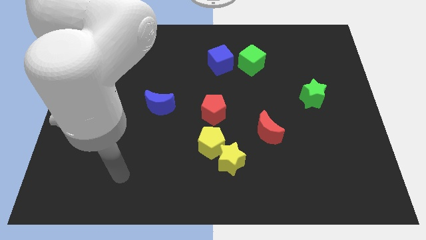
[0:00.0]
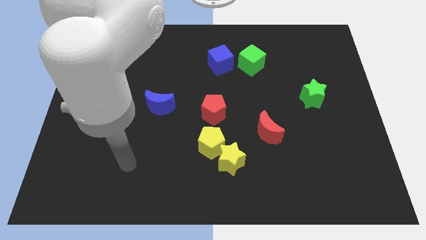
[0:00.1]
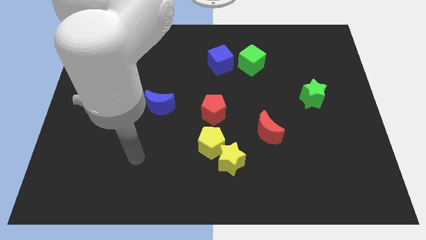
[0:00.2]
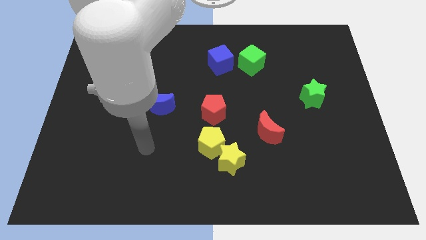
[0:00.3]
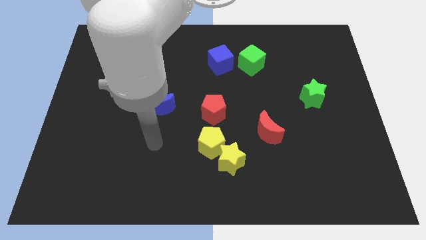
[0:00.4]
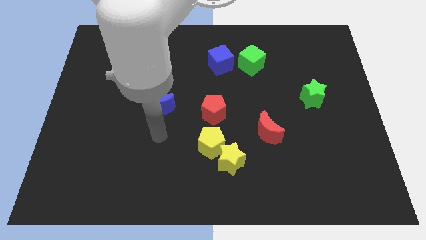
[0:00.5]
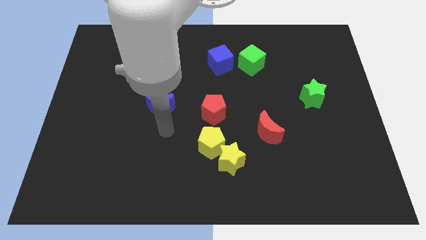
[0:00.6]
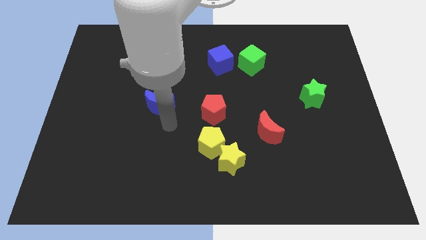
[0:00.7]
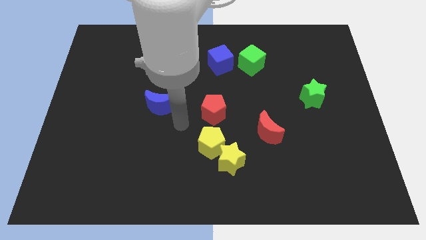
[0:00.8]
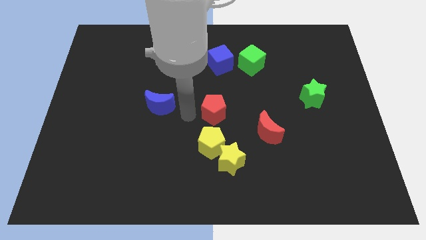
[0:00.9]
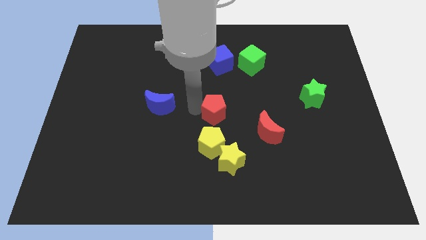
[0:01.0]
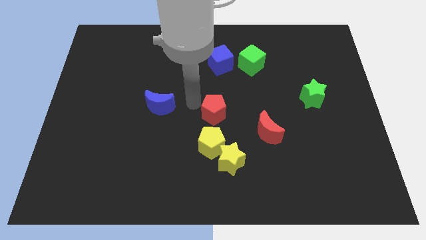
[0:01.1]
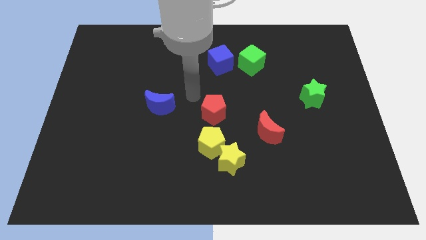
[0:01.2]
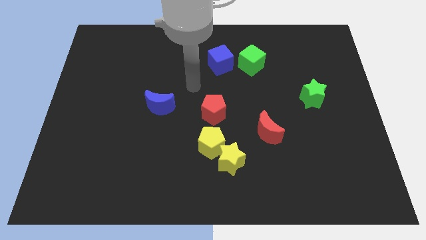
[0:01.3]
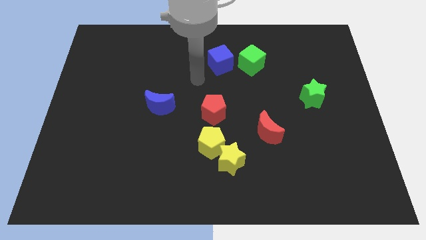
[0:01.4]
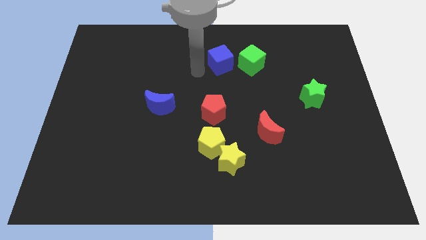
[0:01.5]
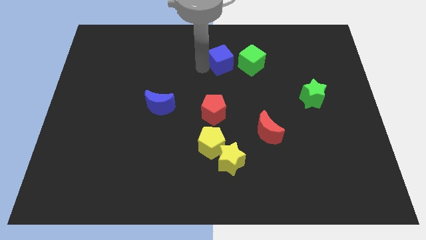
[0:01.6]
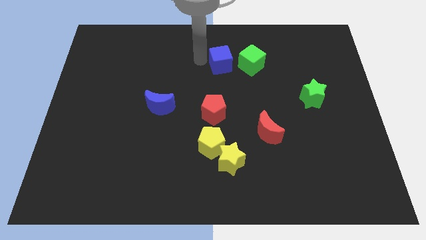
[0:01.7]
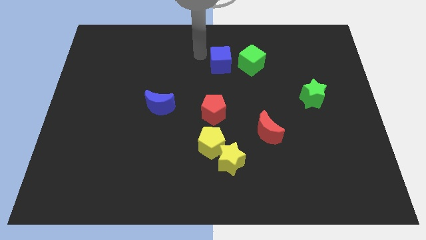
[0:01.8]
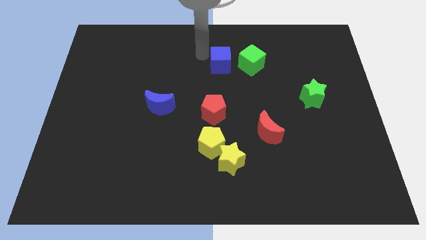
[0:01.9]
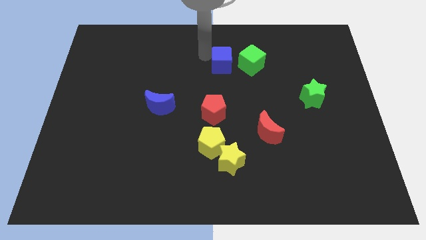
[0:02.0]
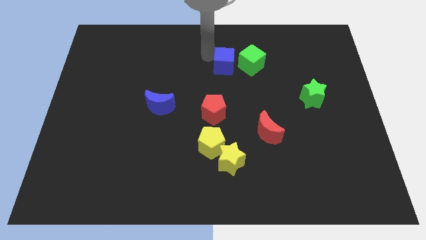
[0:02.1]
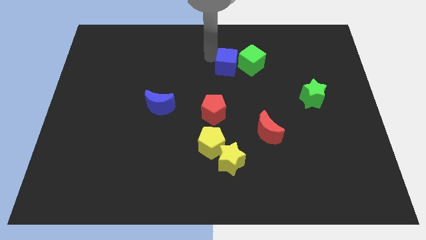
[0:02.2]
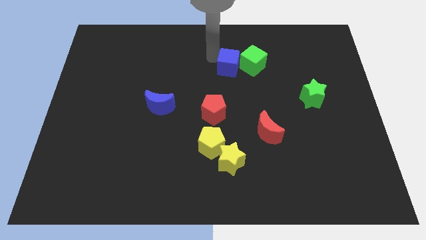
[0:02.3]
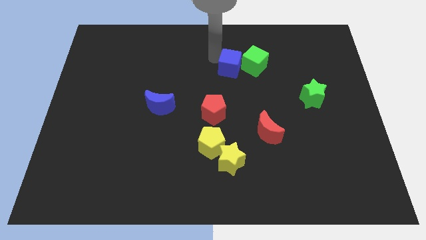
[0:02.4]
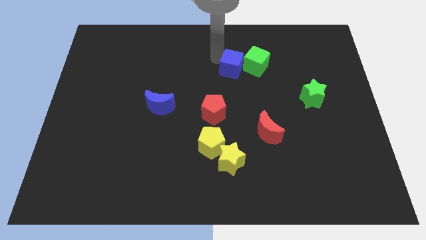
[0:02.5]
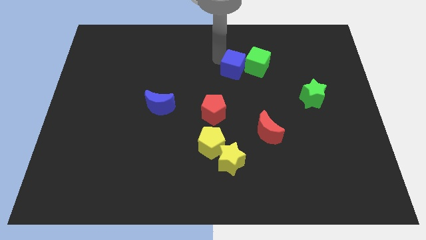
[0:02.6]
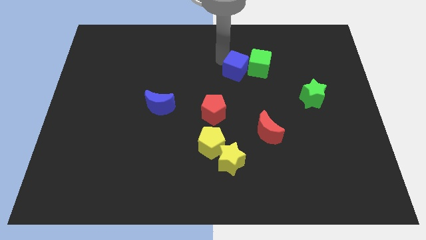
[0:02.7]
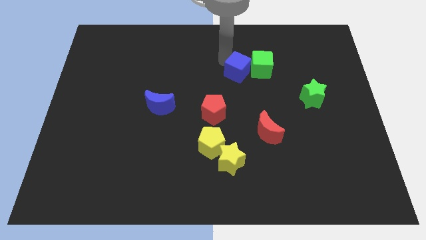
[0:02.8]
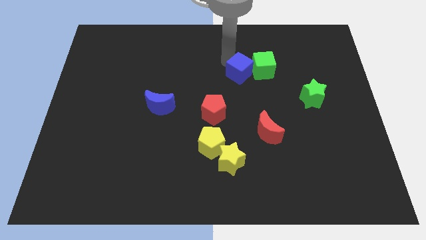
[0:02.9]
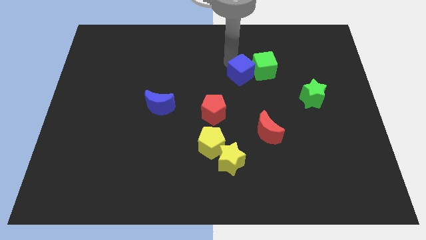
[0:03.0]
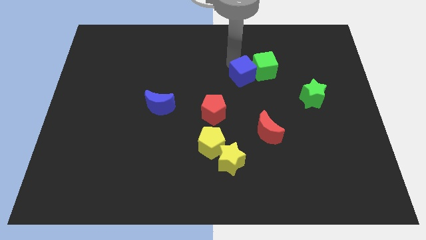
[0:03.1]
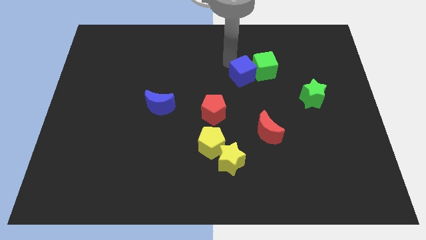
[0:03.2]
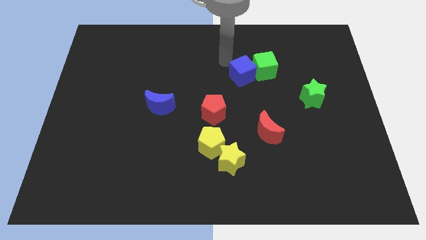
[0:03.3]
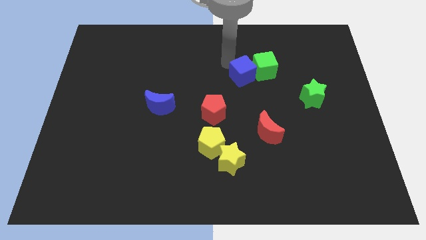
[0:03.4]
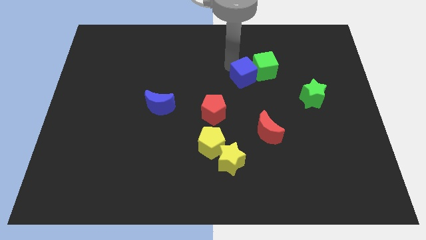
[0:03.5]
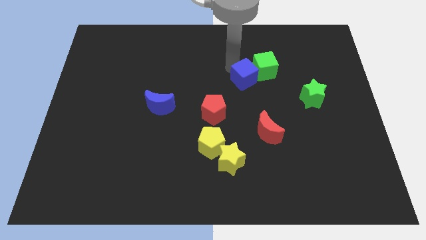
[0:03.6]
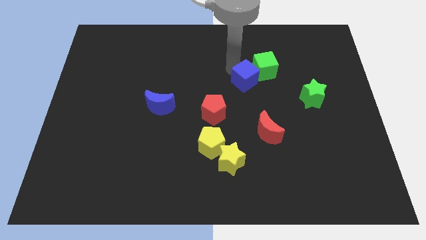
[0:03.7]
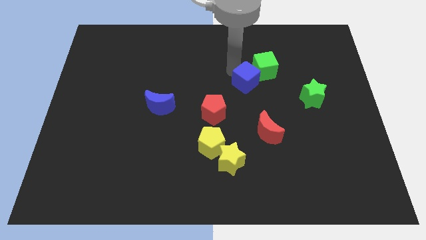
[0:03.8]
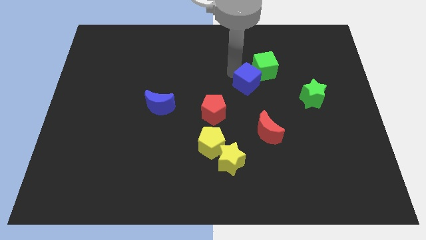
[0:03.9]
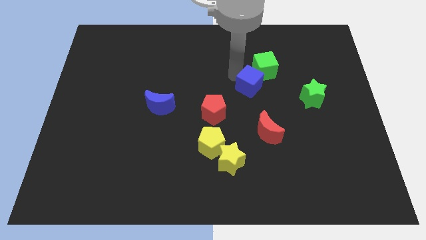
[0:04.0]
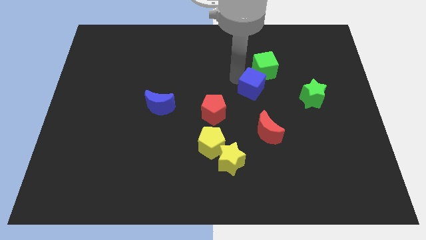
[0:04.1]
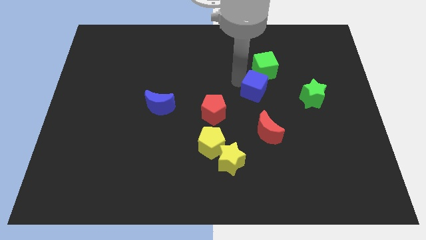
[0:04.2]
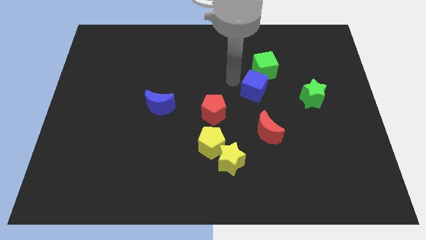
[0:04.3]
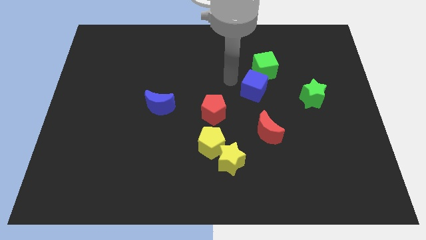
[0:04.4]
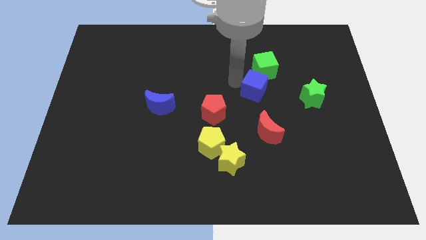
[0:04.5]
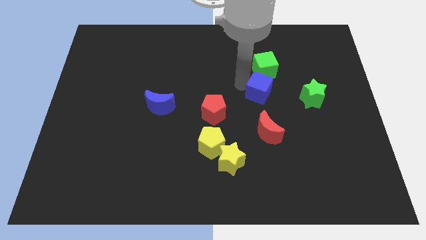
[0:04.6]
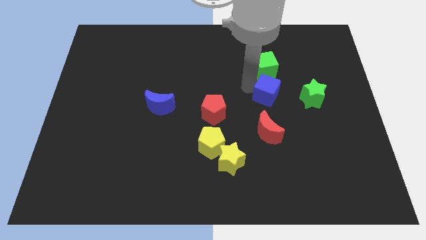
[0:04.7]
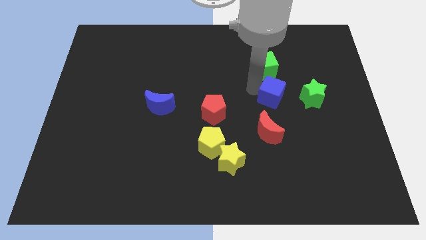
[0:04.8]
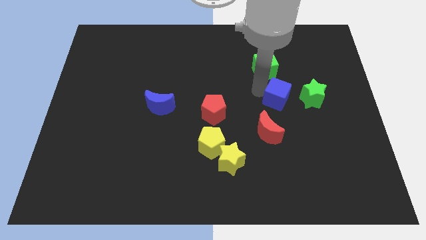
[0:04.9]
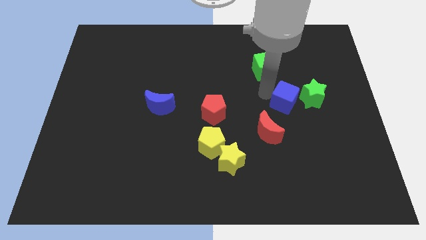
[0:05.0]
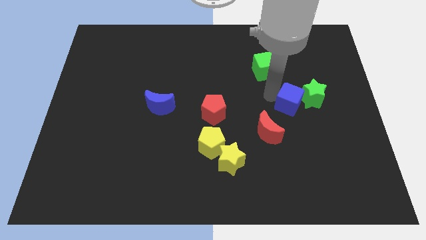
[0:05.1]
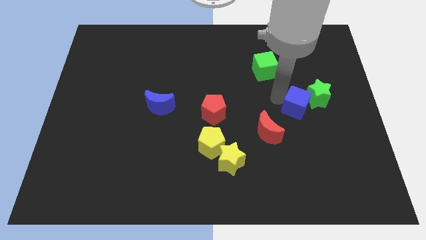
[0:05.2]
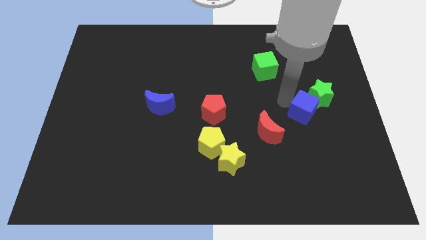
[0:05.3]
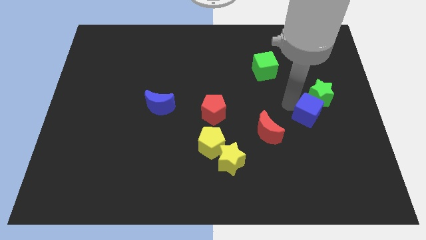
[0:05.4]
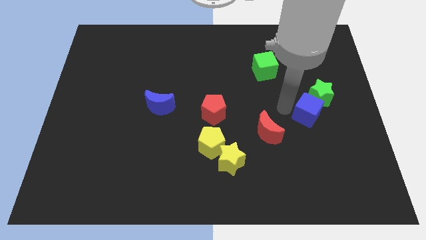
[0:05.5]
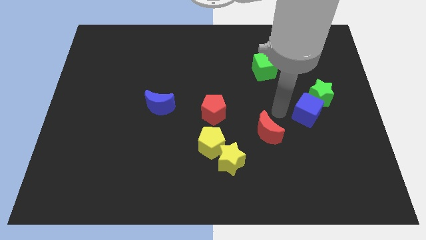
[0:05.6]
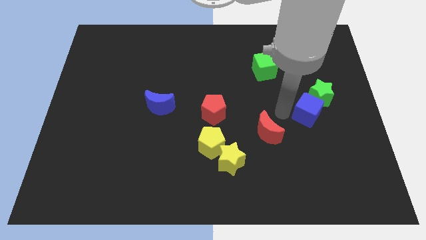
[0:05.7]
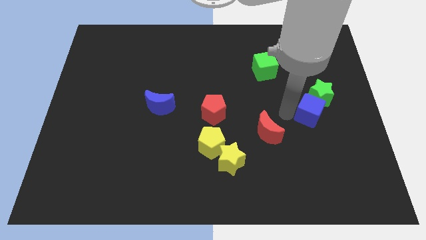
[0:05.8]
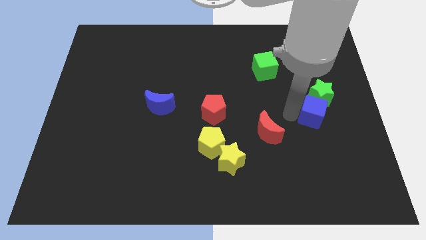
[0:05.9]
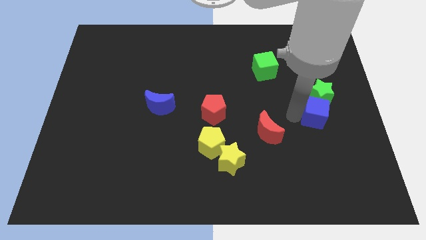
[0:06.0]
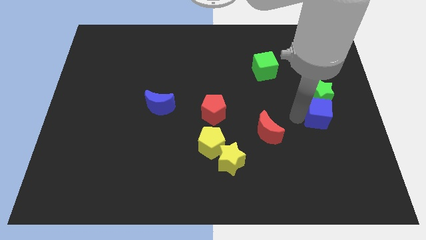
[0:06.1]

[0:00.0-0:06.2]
put the blue cube to the bottom right of the green star

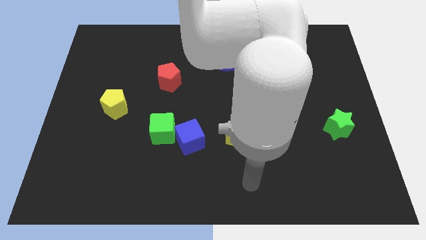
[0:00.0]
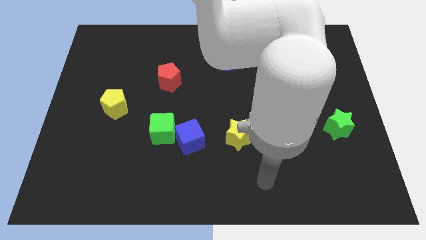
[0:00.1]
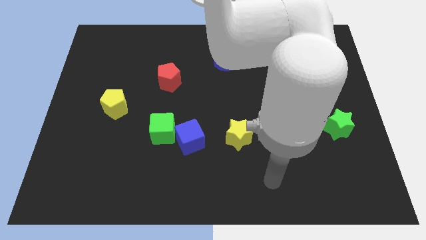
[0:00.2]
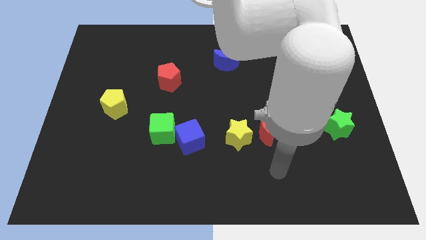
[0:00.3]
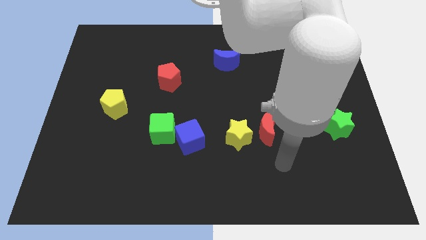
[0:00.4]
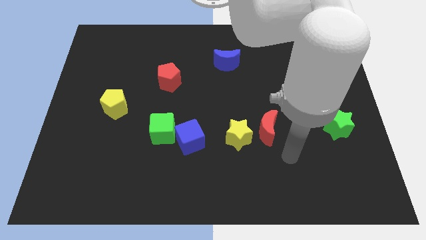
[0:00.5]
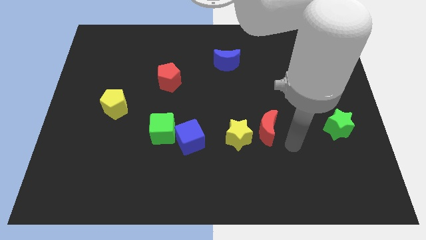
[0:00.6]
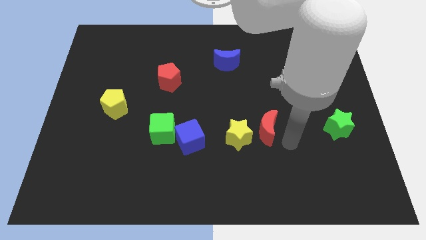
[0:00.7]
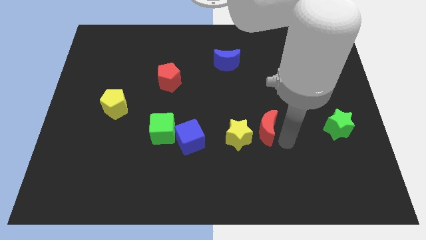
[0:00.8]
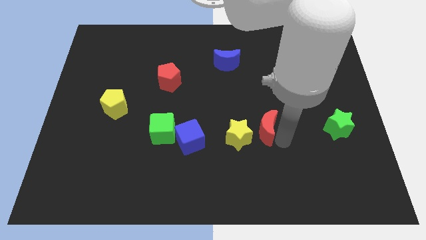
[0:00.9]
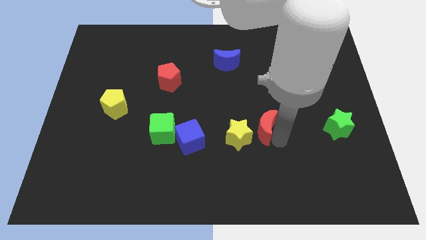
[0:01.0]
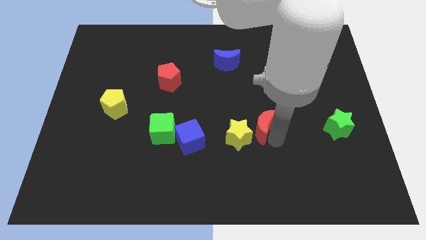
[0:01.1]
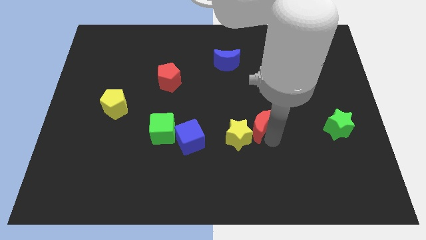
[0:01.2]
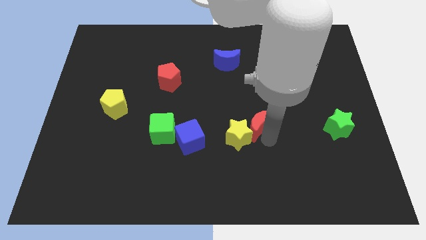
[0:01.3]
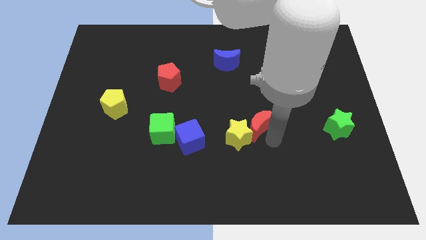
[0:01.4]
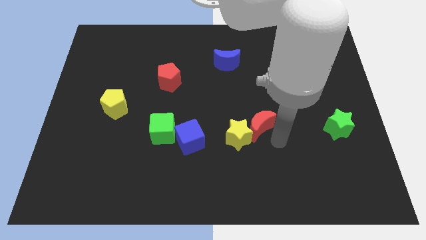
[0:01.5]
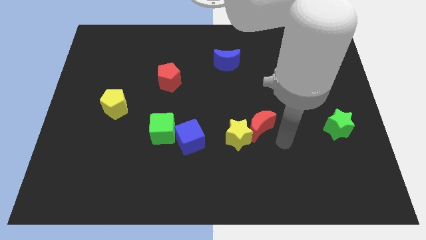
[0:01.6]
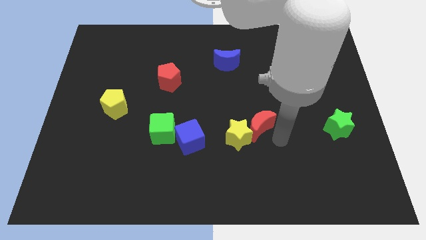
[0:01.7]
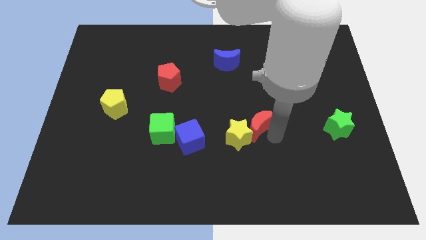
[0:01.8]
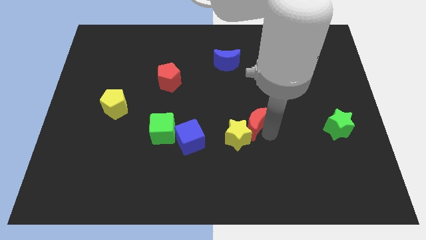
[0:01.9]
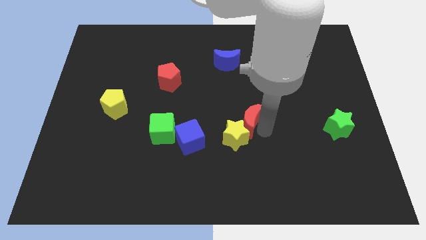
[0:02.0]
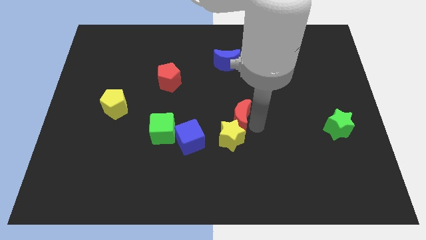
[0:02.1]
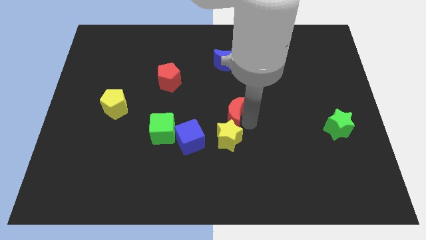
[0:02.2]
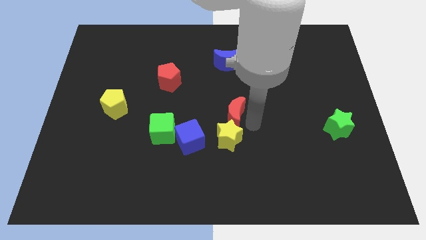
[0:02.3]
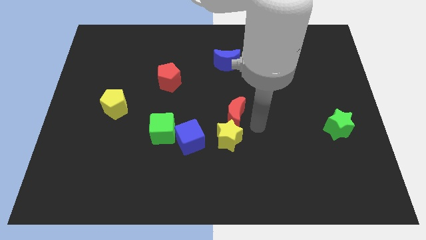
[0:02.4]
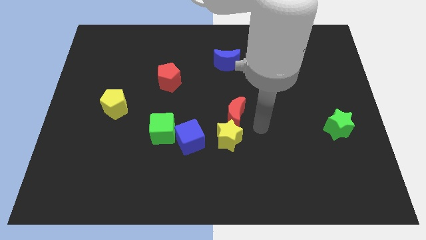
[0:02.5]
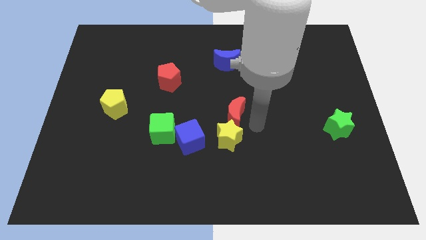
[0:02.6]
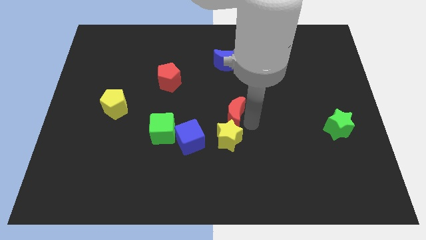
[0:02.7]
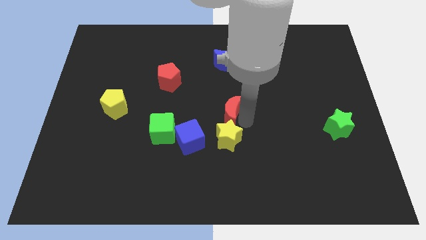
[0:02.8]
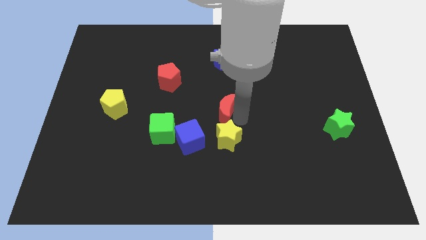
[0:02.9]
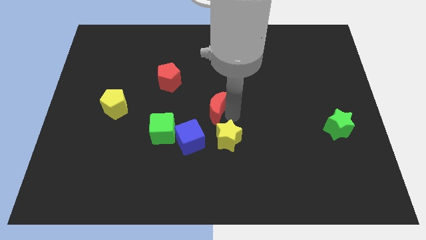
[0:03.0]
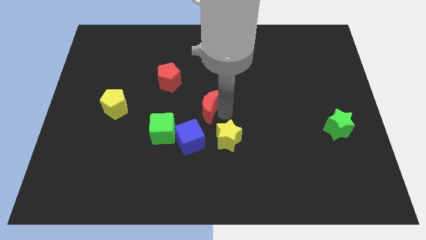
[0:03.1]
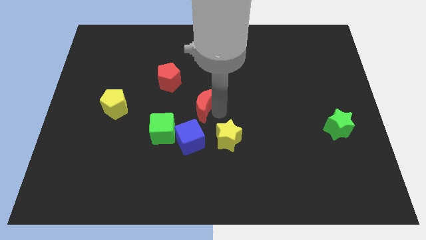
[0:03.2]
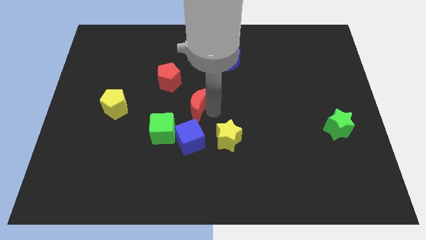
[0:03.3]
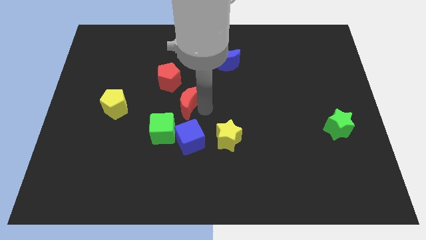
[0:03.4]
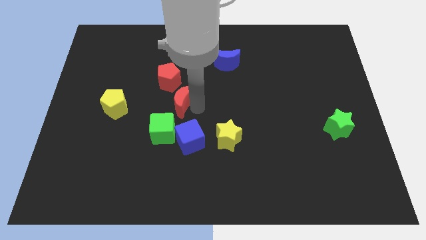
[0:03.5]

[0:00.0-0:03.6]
put the red moon to the top side of the green cube
